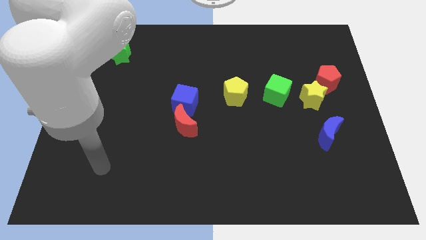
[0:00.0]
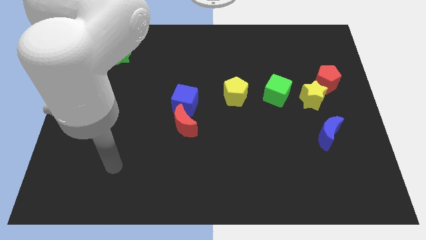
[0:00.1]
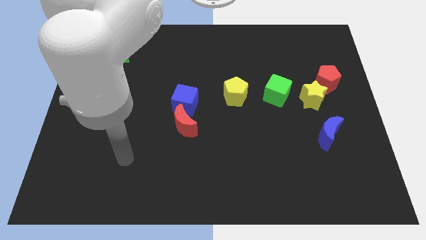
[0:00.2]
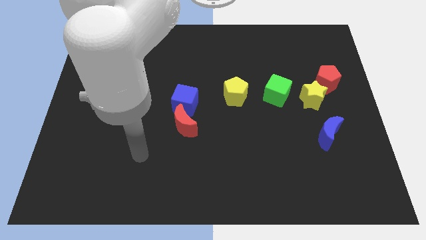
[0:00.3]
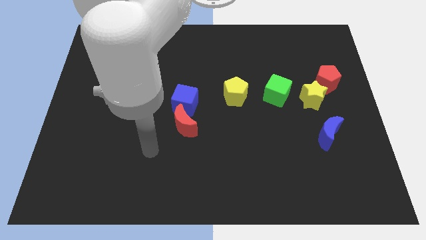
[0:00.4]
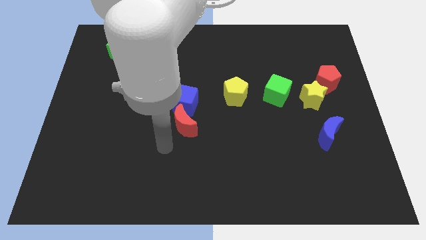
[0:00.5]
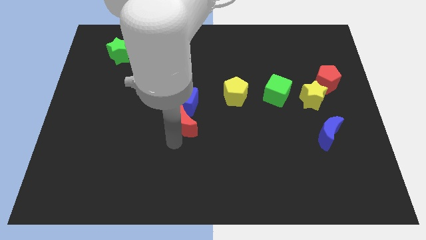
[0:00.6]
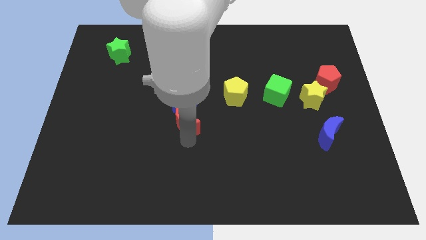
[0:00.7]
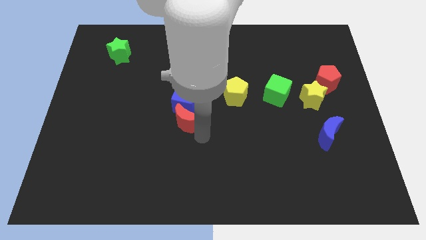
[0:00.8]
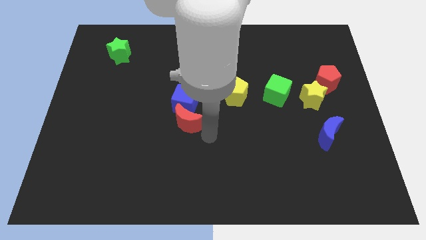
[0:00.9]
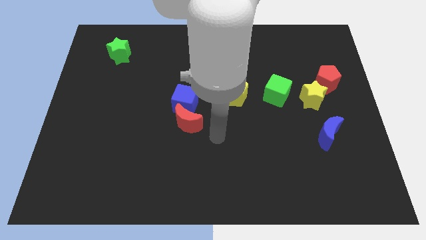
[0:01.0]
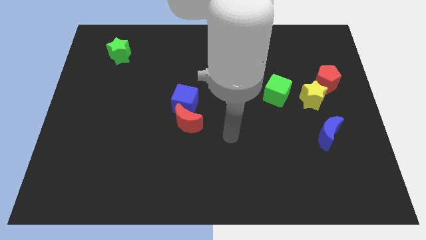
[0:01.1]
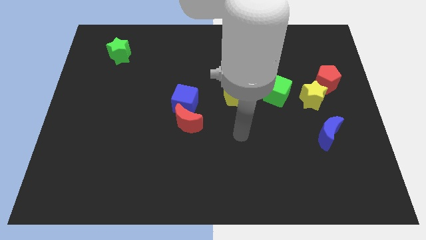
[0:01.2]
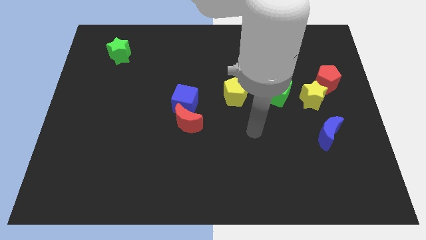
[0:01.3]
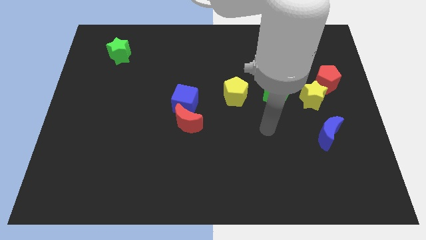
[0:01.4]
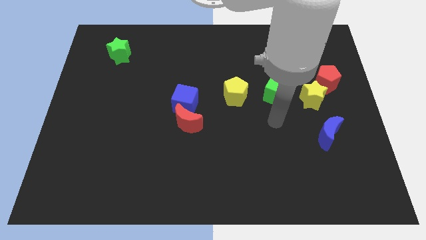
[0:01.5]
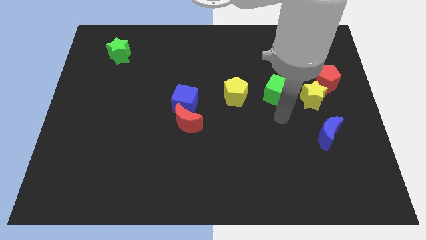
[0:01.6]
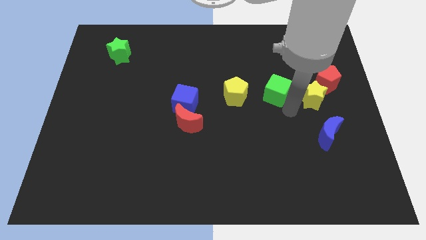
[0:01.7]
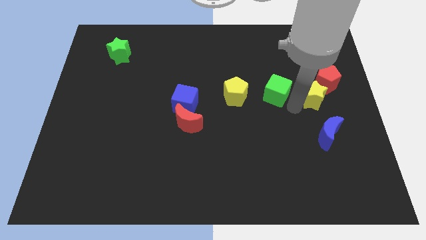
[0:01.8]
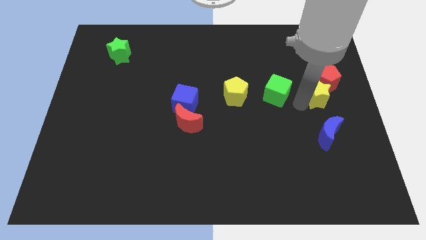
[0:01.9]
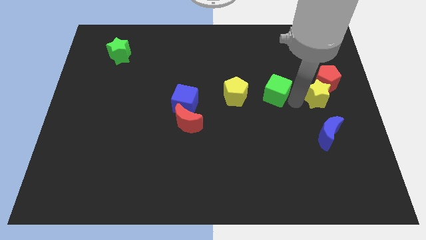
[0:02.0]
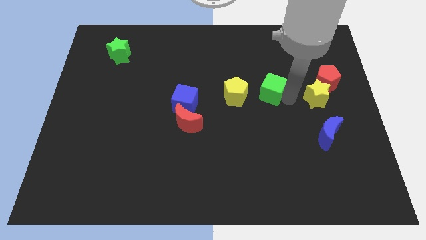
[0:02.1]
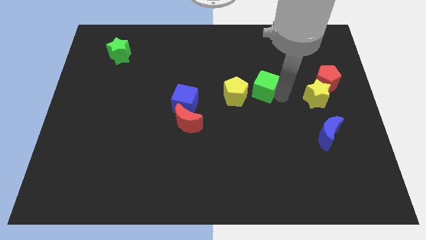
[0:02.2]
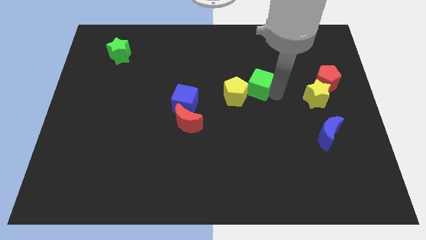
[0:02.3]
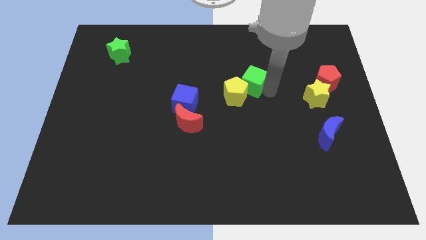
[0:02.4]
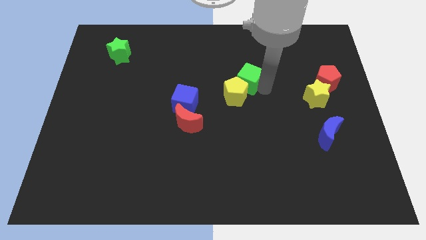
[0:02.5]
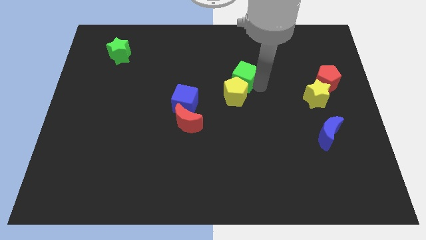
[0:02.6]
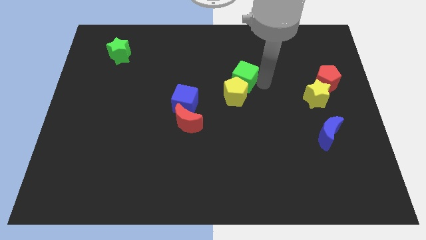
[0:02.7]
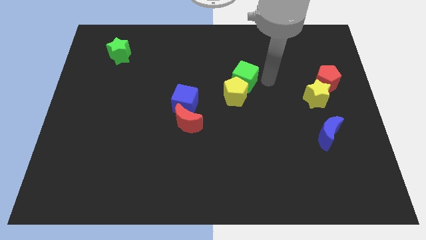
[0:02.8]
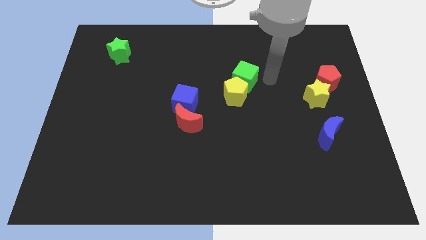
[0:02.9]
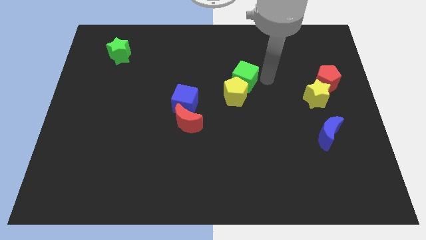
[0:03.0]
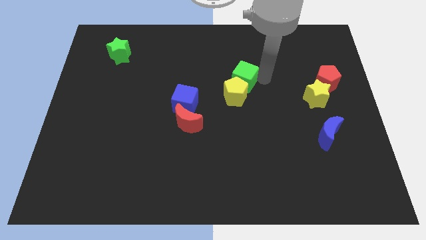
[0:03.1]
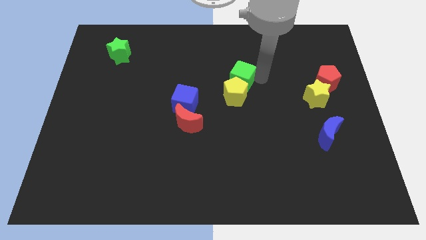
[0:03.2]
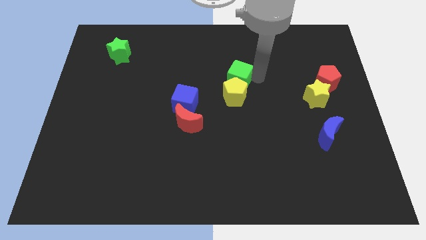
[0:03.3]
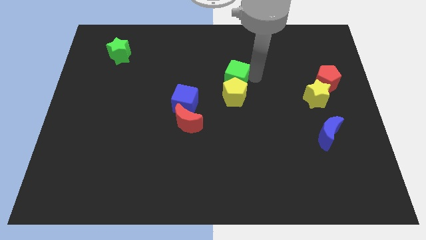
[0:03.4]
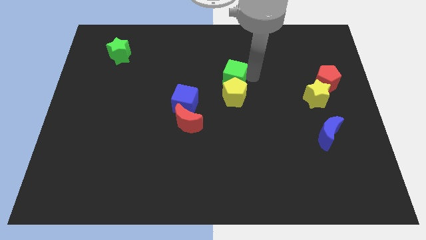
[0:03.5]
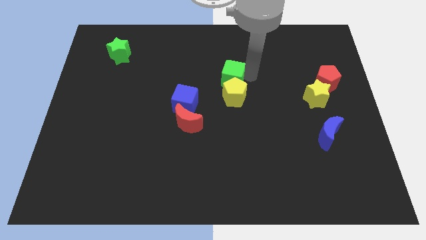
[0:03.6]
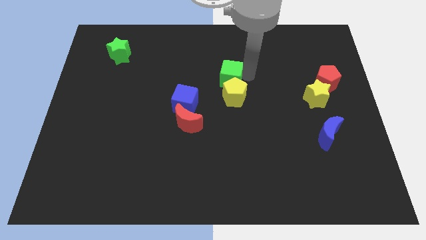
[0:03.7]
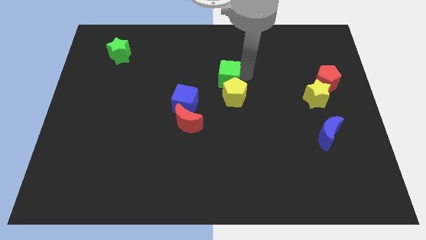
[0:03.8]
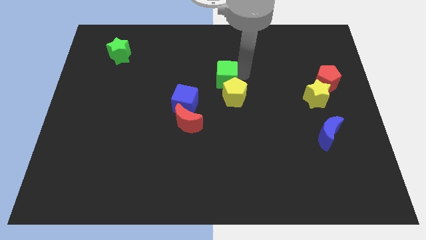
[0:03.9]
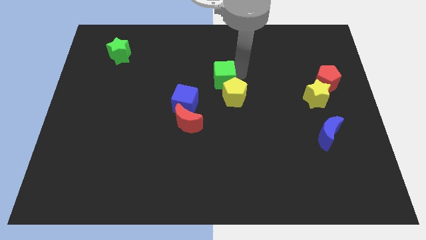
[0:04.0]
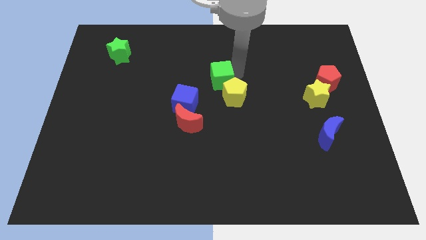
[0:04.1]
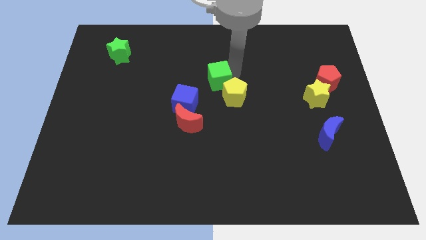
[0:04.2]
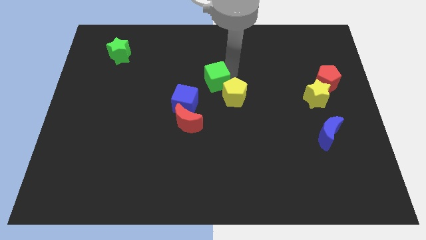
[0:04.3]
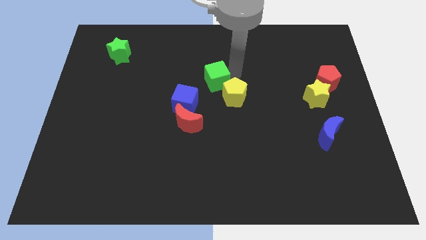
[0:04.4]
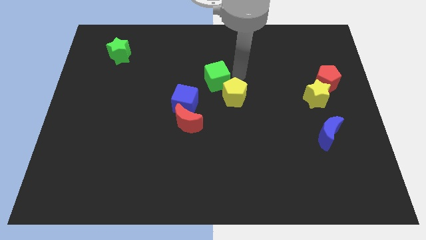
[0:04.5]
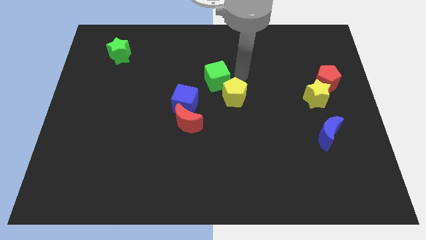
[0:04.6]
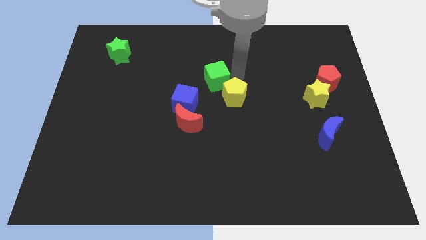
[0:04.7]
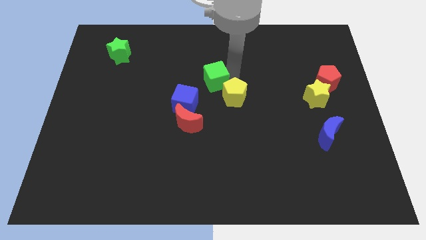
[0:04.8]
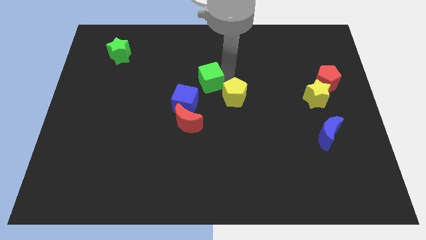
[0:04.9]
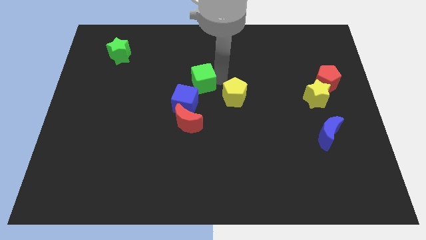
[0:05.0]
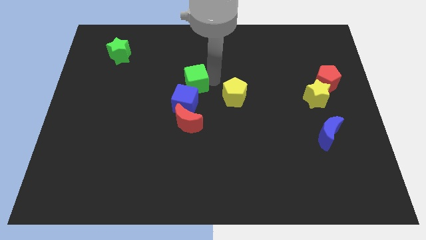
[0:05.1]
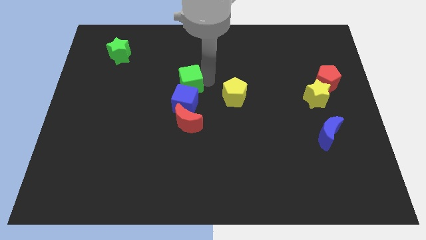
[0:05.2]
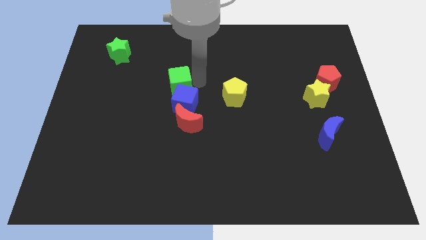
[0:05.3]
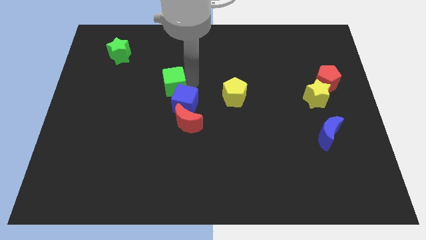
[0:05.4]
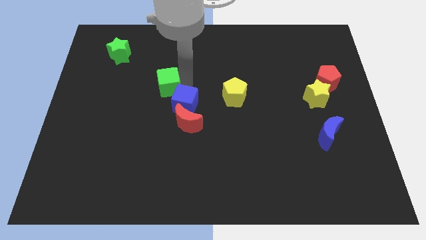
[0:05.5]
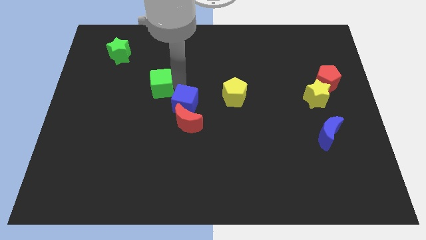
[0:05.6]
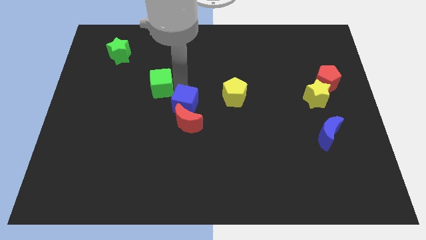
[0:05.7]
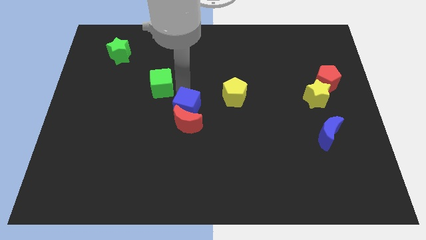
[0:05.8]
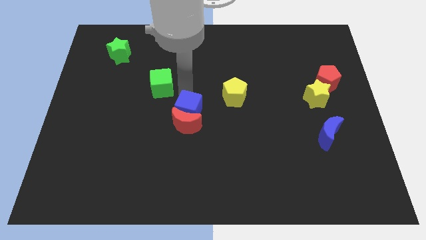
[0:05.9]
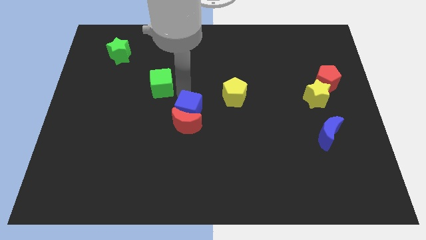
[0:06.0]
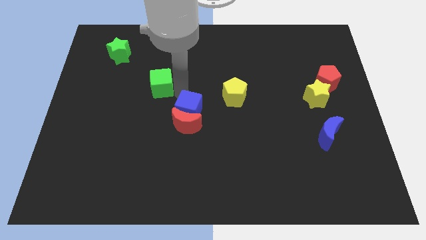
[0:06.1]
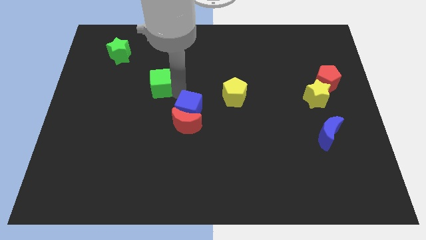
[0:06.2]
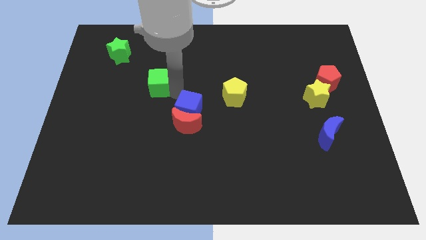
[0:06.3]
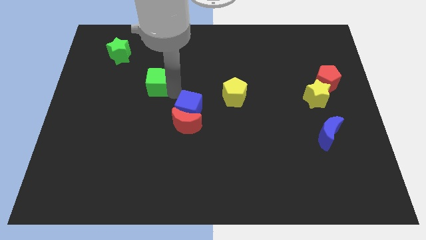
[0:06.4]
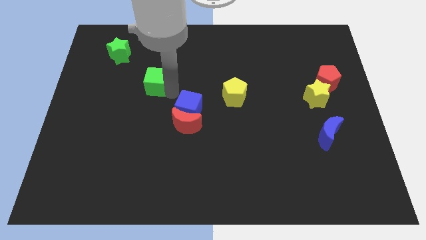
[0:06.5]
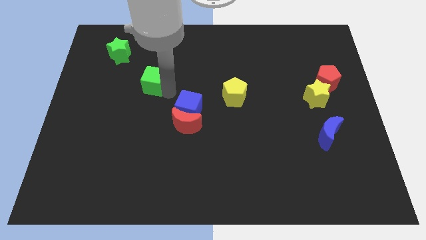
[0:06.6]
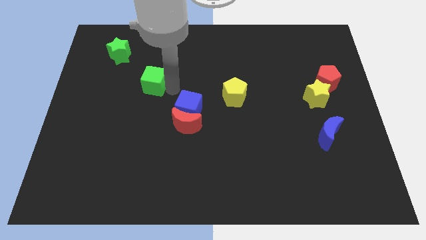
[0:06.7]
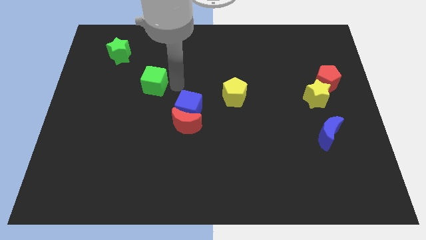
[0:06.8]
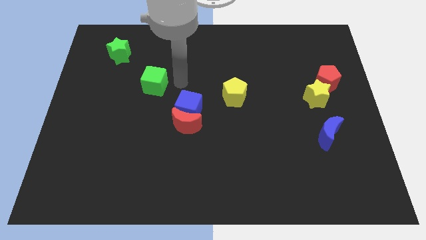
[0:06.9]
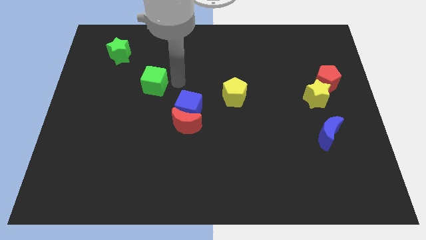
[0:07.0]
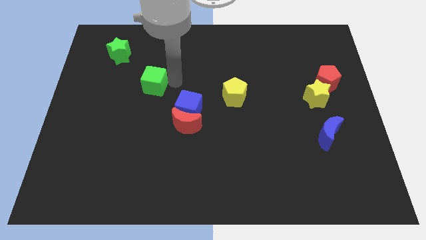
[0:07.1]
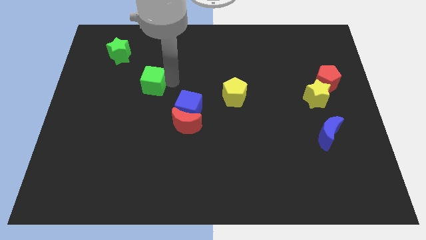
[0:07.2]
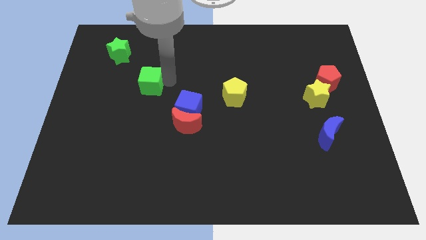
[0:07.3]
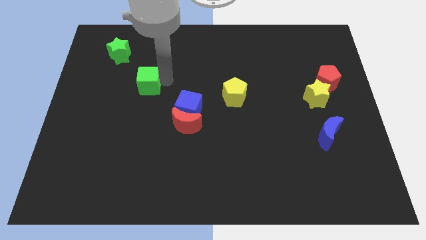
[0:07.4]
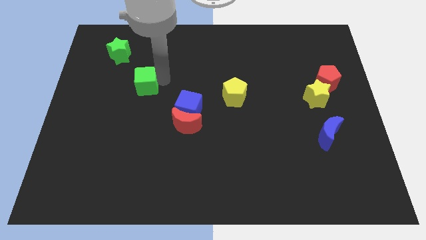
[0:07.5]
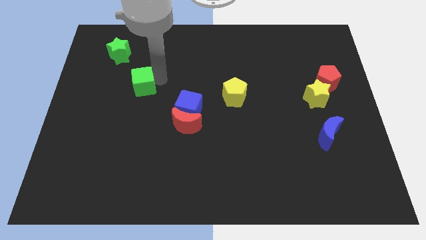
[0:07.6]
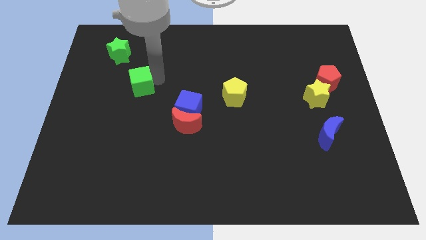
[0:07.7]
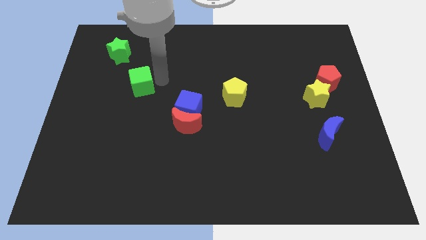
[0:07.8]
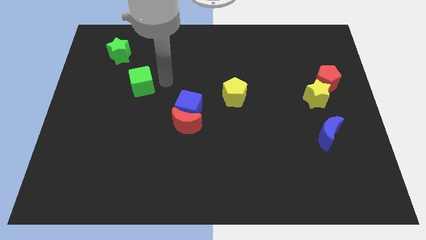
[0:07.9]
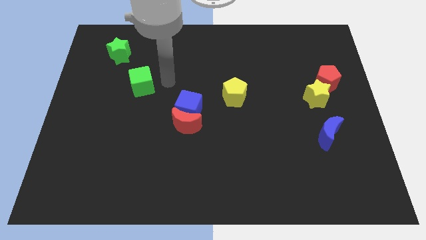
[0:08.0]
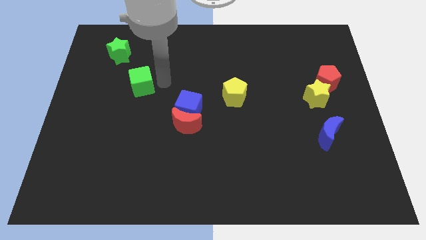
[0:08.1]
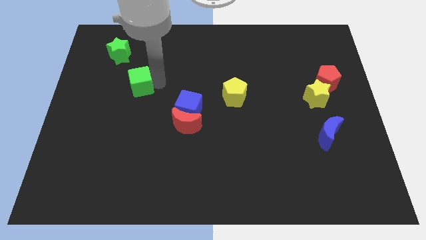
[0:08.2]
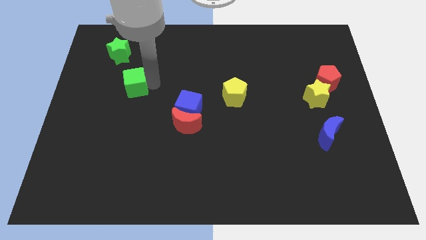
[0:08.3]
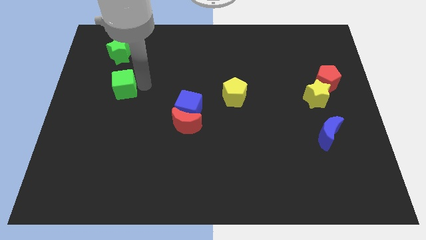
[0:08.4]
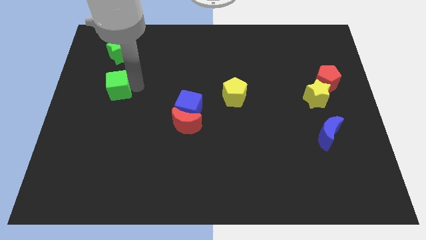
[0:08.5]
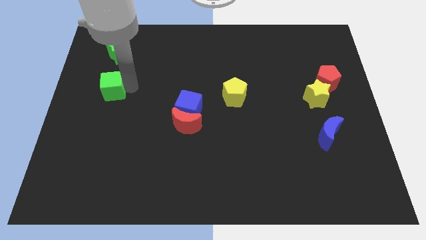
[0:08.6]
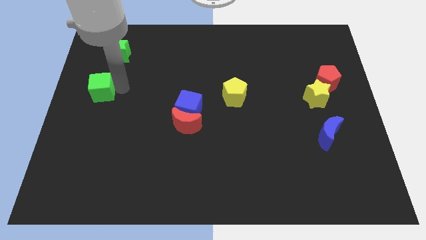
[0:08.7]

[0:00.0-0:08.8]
push the green cube to the left side
